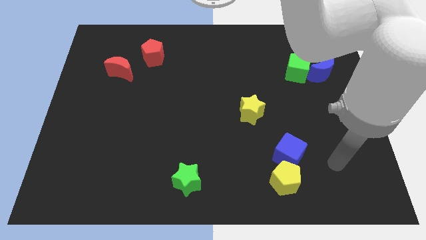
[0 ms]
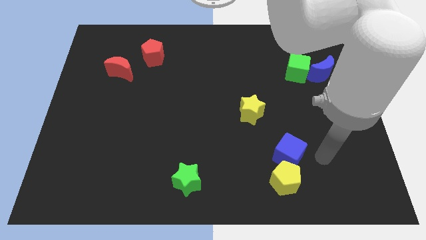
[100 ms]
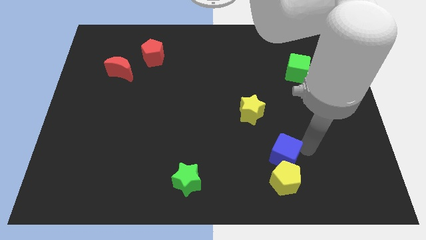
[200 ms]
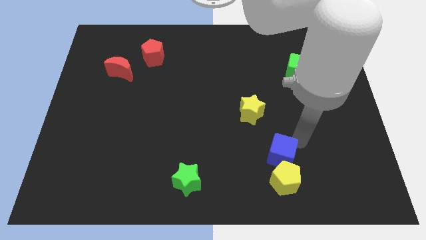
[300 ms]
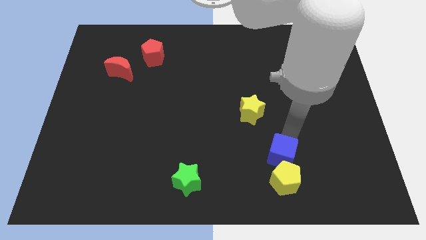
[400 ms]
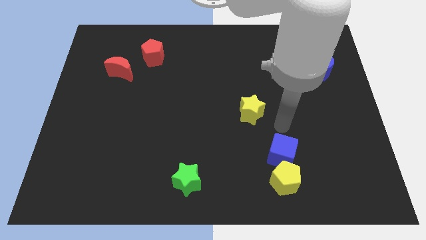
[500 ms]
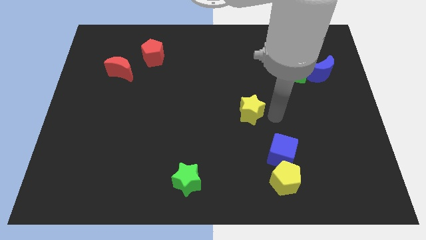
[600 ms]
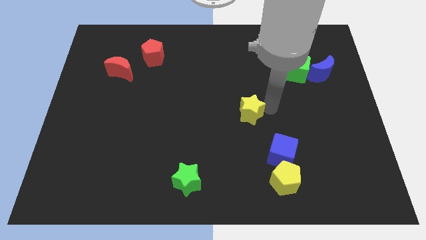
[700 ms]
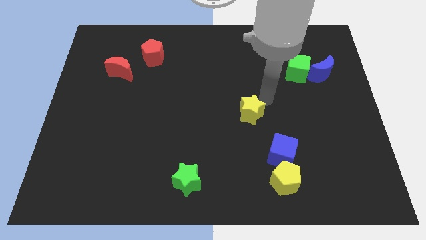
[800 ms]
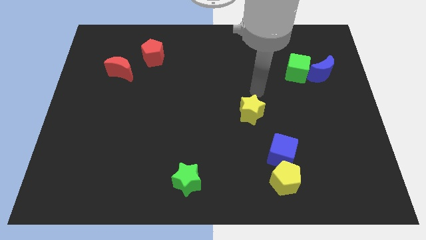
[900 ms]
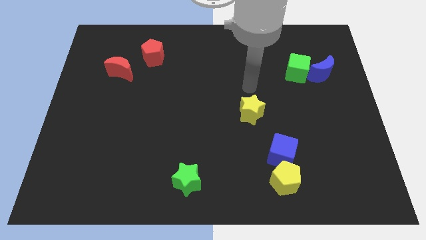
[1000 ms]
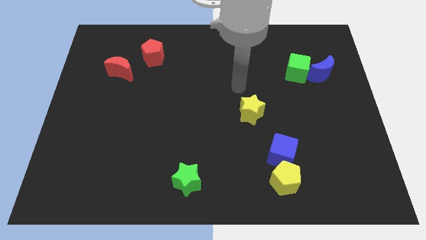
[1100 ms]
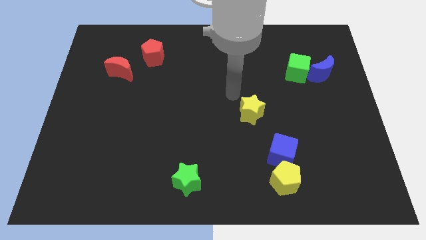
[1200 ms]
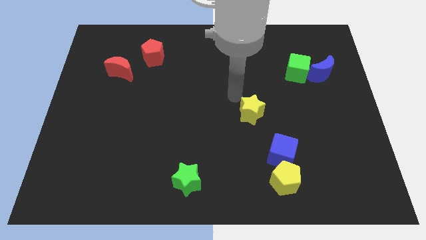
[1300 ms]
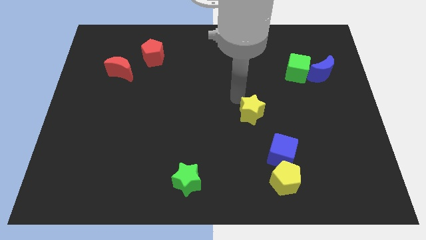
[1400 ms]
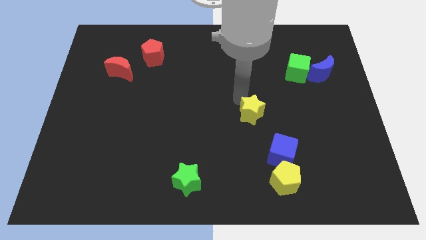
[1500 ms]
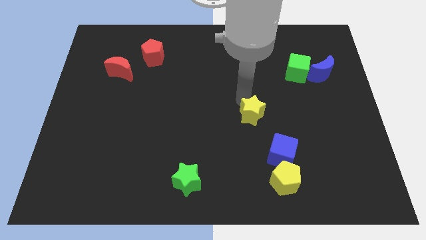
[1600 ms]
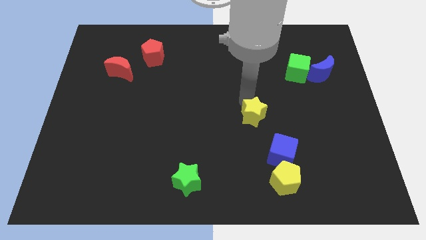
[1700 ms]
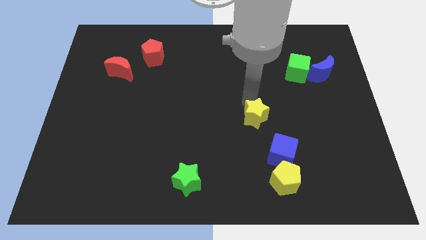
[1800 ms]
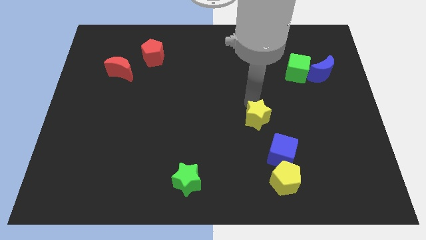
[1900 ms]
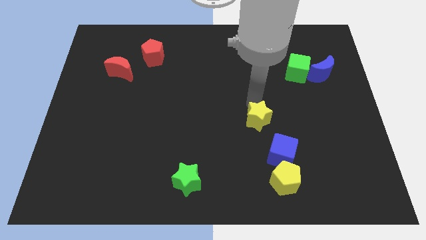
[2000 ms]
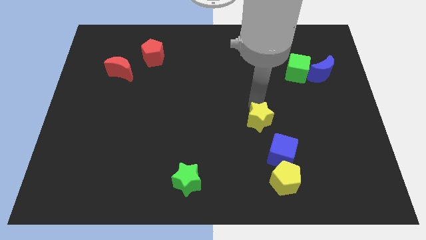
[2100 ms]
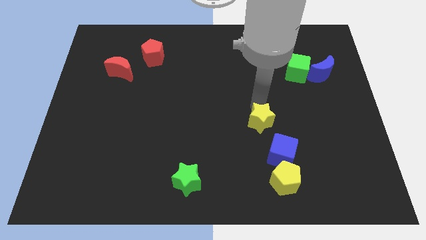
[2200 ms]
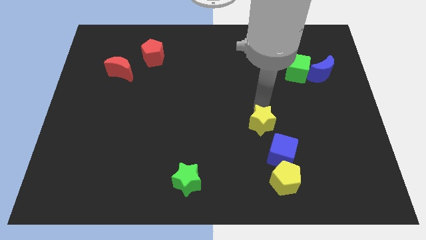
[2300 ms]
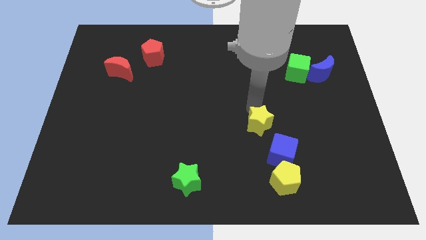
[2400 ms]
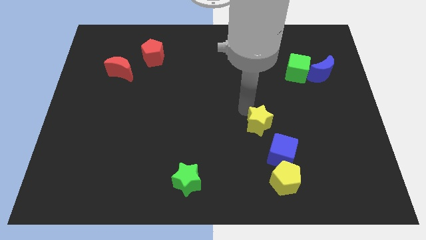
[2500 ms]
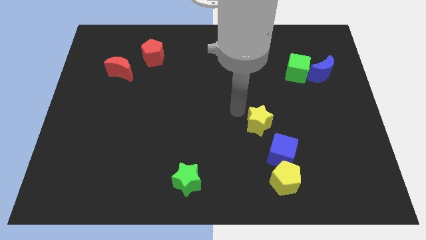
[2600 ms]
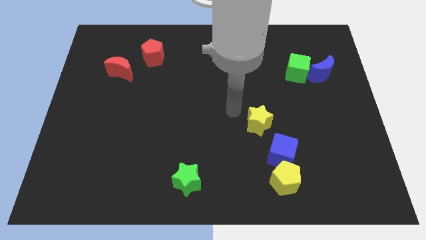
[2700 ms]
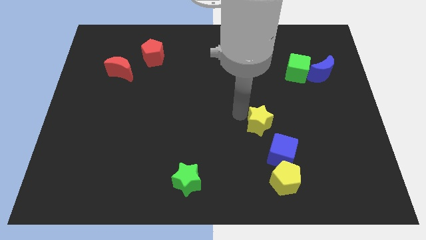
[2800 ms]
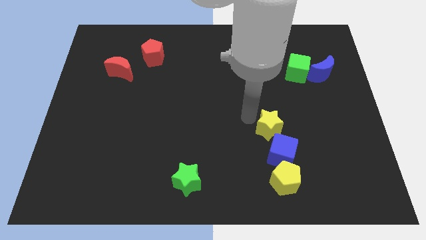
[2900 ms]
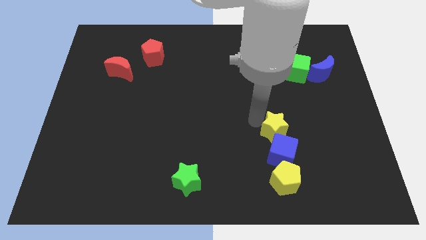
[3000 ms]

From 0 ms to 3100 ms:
slightly move the yellow star downwards and right diagonally

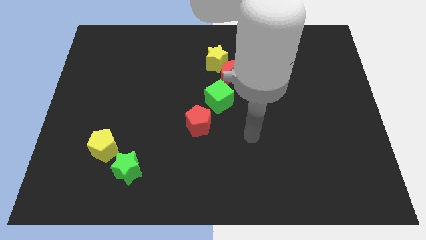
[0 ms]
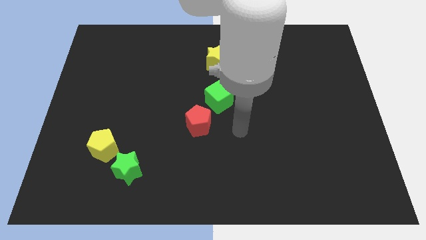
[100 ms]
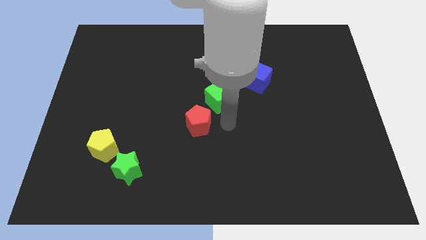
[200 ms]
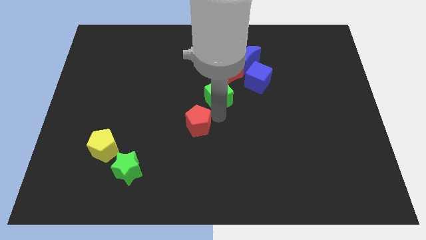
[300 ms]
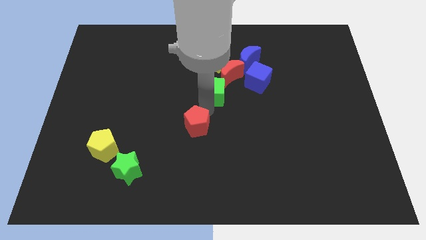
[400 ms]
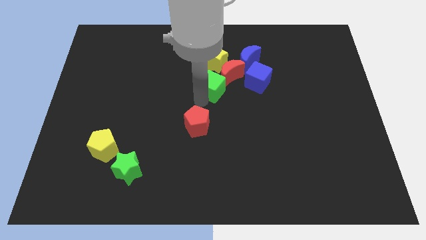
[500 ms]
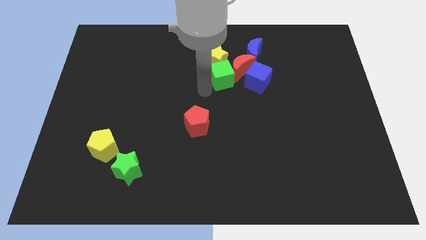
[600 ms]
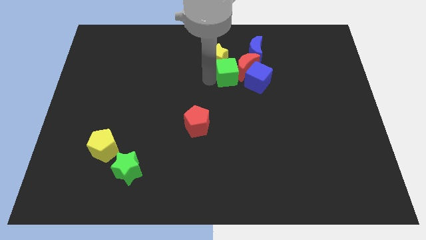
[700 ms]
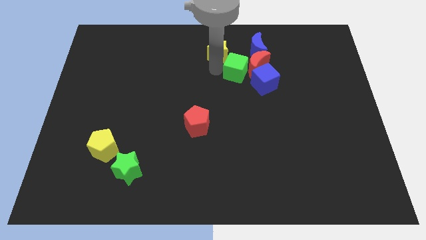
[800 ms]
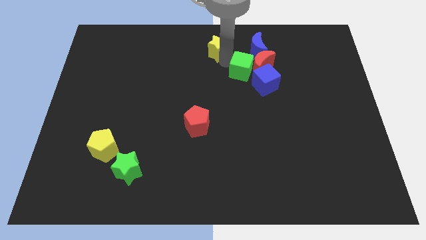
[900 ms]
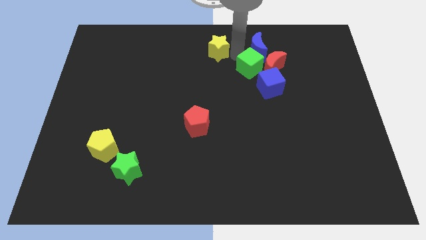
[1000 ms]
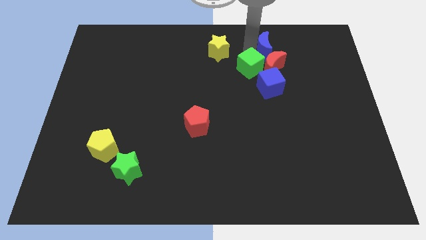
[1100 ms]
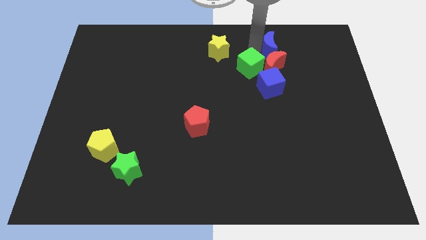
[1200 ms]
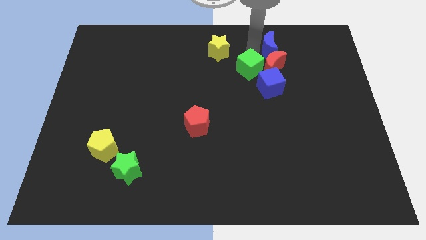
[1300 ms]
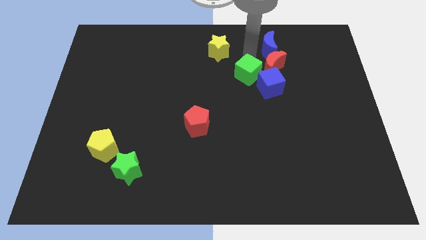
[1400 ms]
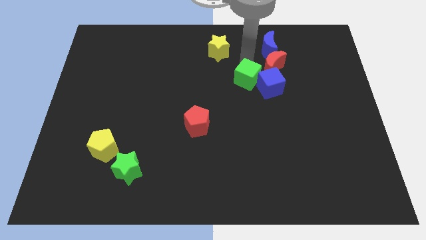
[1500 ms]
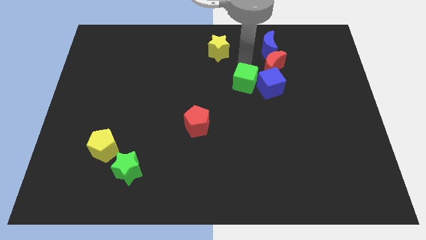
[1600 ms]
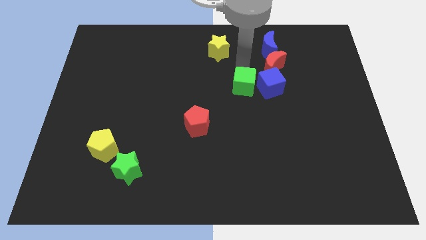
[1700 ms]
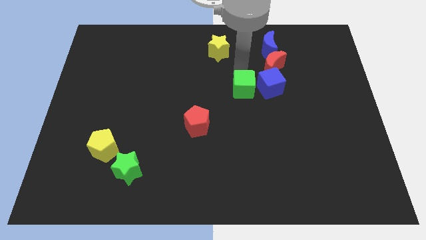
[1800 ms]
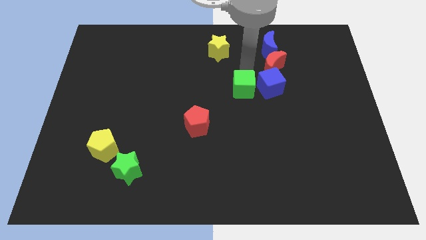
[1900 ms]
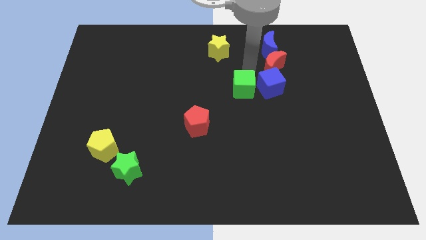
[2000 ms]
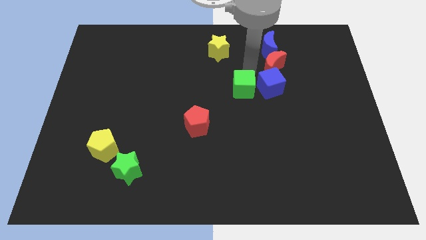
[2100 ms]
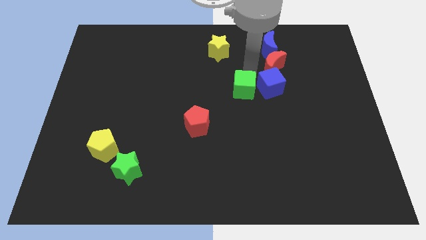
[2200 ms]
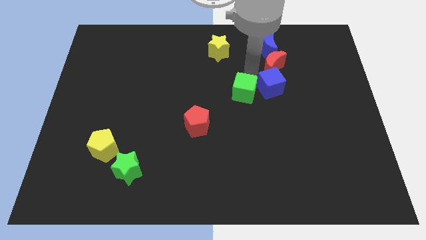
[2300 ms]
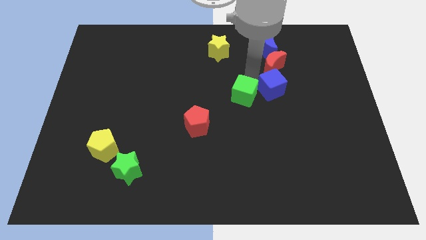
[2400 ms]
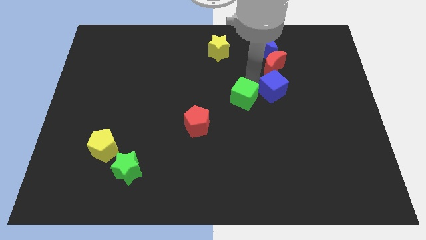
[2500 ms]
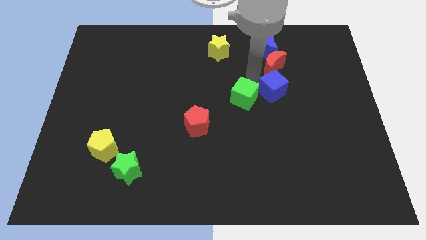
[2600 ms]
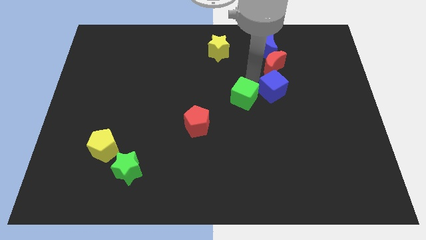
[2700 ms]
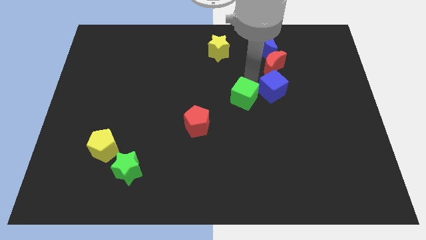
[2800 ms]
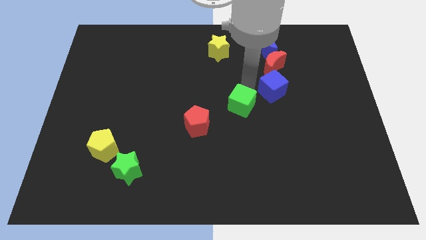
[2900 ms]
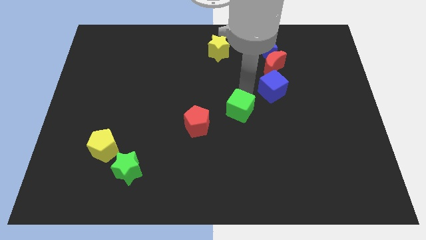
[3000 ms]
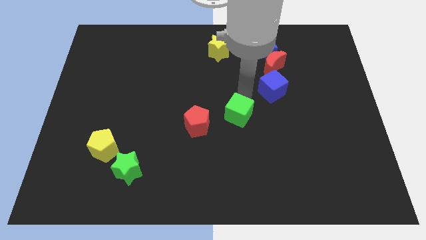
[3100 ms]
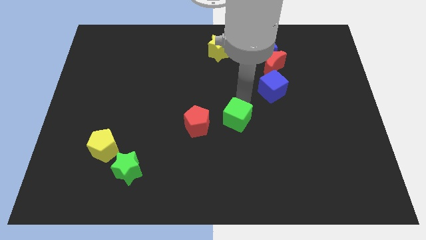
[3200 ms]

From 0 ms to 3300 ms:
slide the green cube downwards and right diagonally slightly

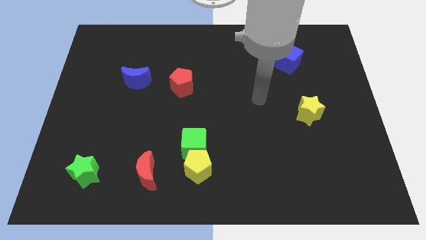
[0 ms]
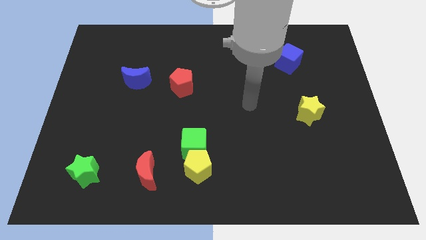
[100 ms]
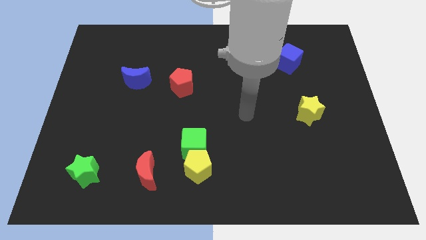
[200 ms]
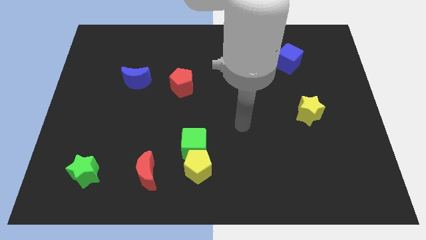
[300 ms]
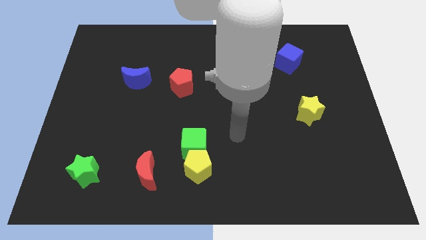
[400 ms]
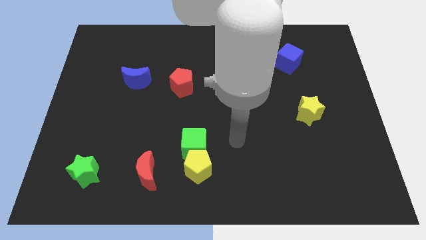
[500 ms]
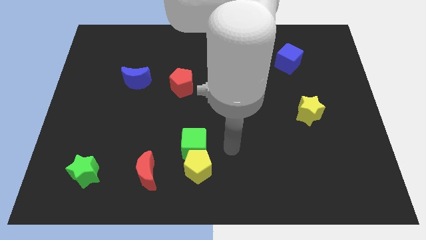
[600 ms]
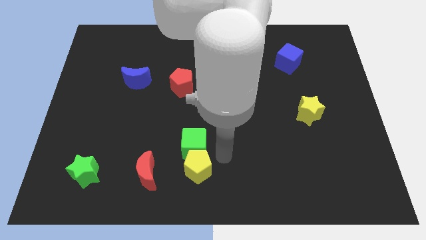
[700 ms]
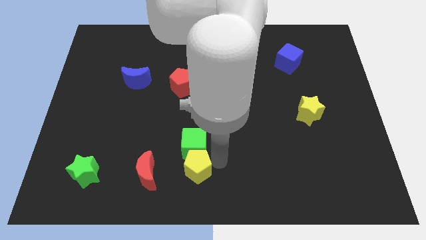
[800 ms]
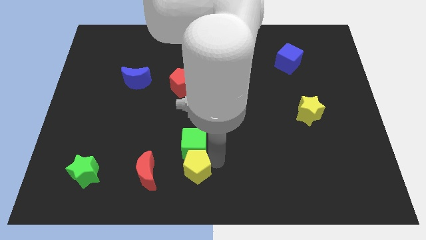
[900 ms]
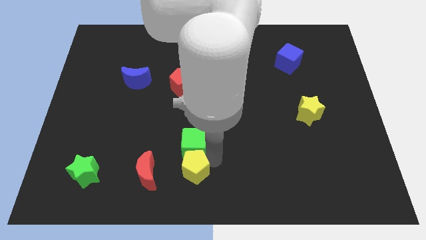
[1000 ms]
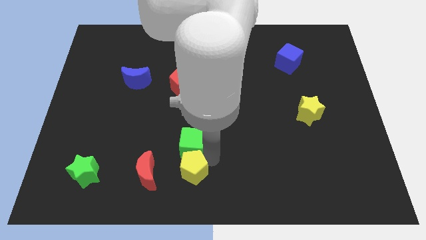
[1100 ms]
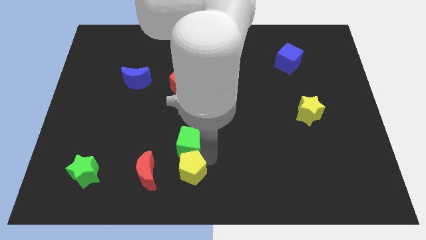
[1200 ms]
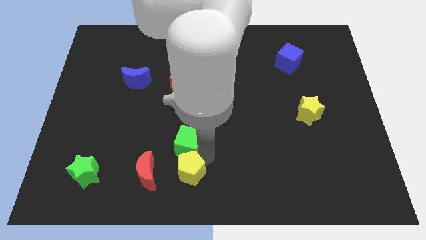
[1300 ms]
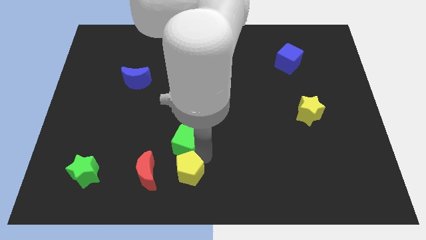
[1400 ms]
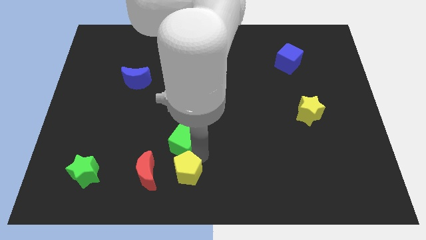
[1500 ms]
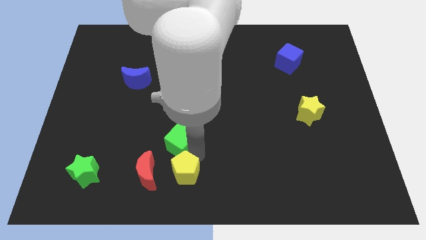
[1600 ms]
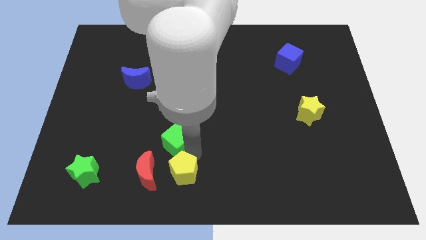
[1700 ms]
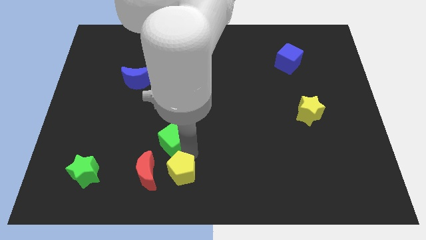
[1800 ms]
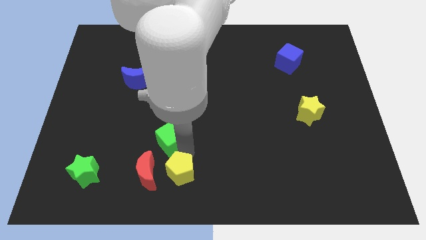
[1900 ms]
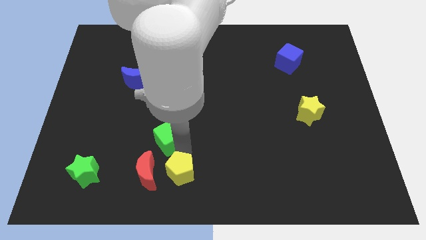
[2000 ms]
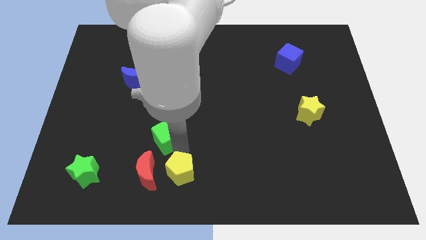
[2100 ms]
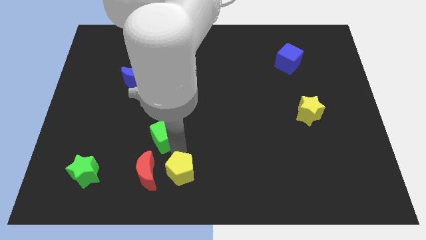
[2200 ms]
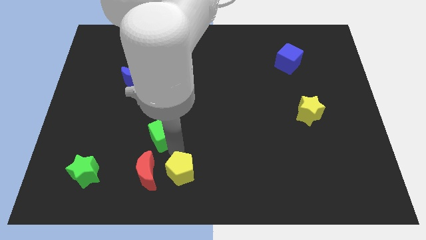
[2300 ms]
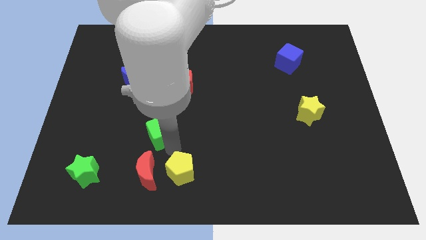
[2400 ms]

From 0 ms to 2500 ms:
move the green cube a bit upwards and left
